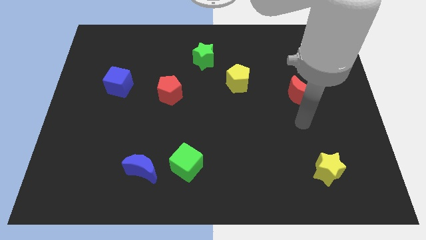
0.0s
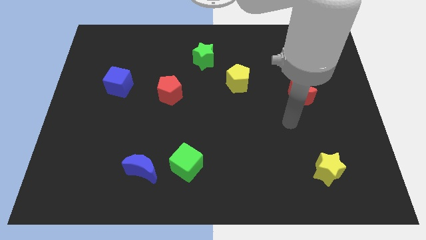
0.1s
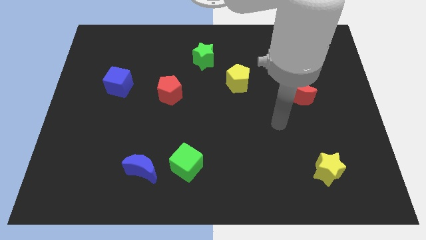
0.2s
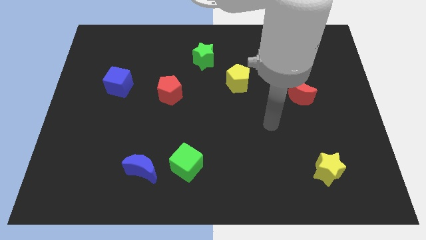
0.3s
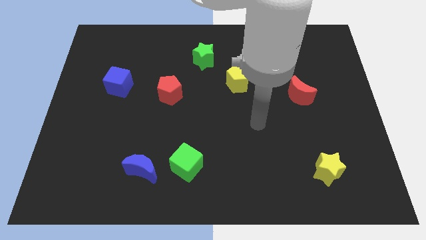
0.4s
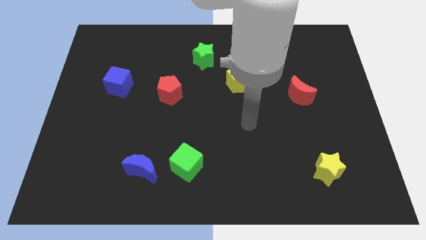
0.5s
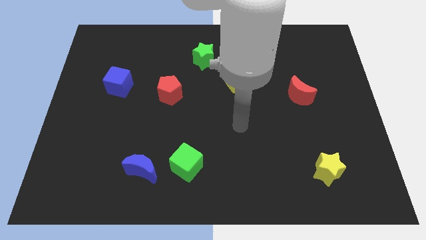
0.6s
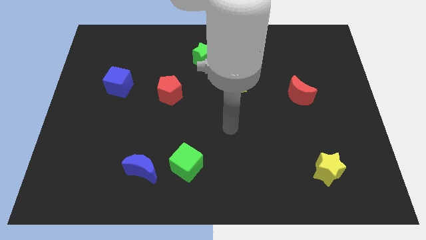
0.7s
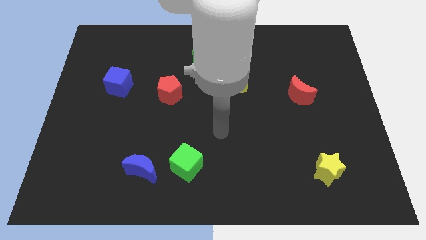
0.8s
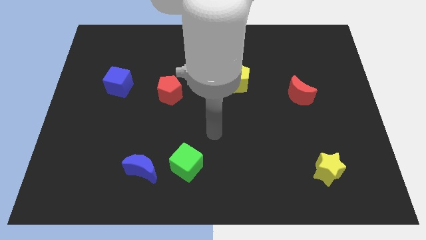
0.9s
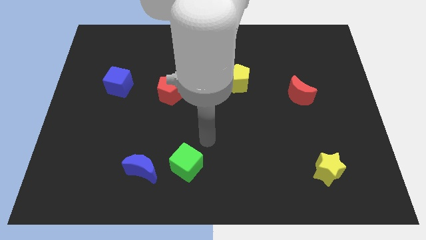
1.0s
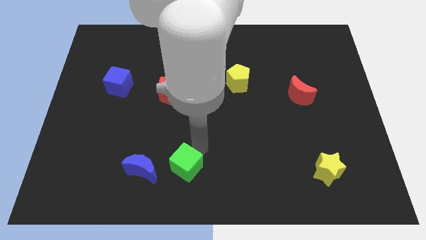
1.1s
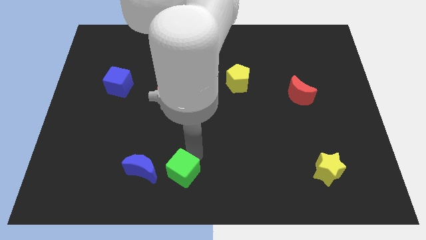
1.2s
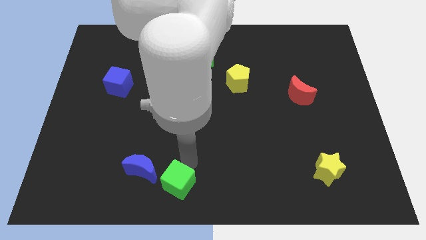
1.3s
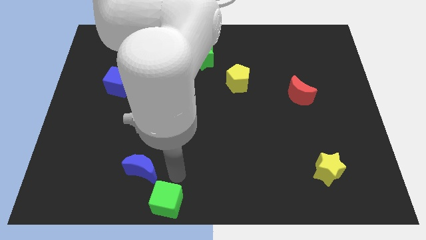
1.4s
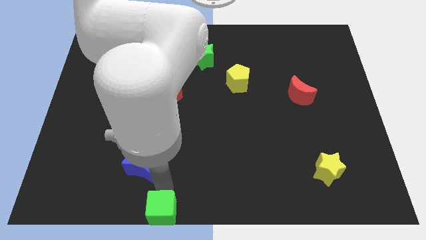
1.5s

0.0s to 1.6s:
move the blue moon away from the green cube

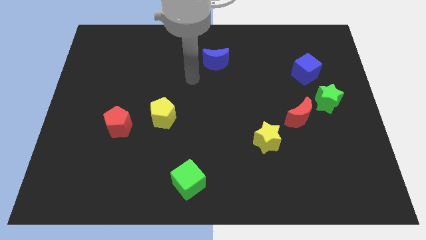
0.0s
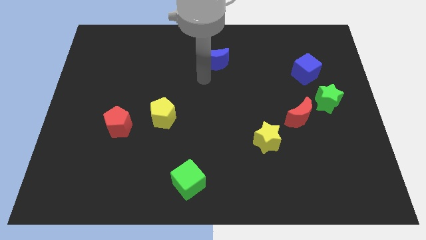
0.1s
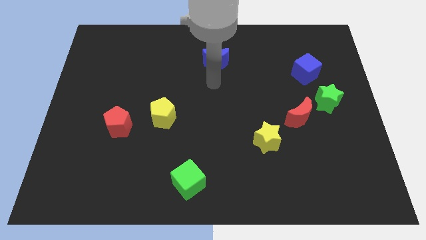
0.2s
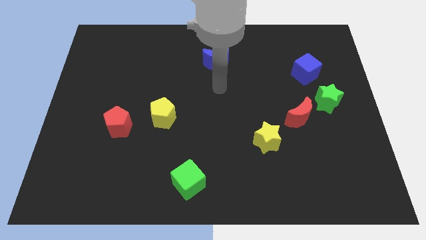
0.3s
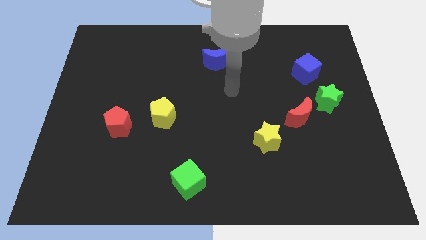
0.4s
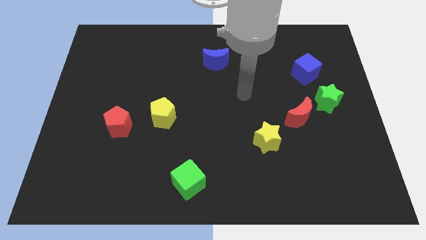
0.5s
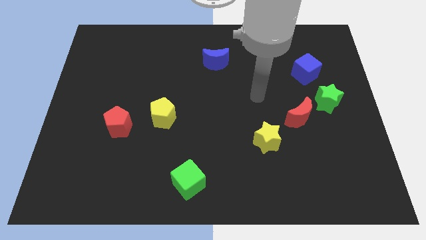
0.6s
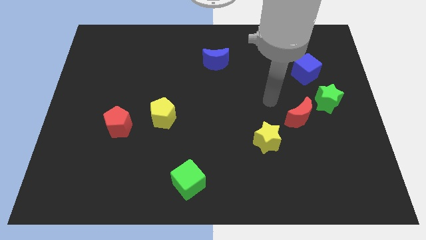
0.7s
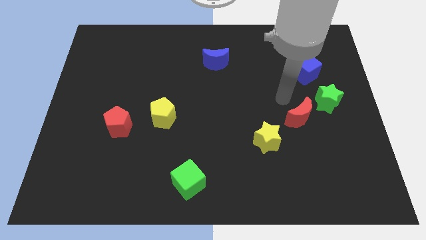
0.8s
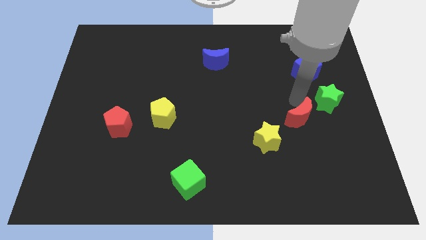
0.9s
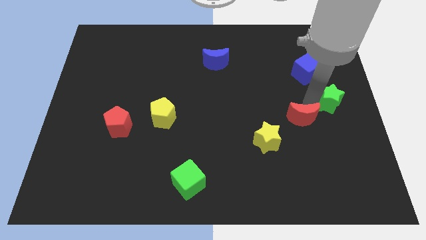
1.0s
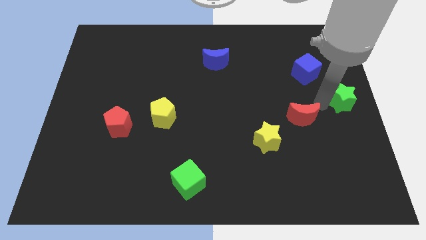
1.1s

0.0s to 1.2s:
separate the red moon from the green star

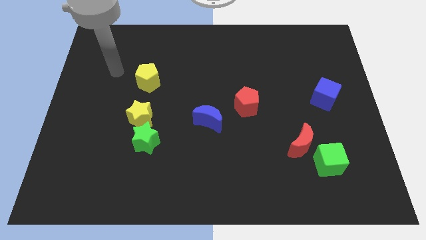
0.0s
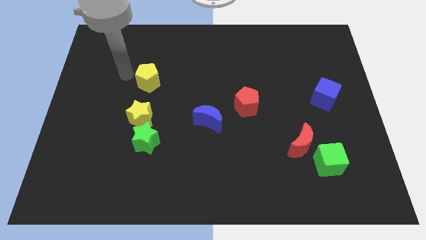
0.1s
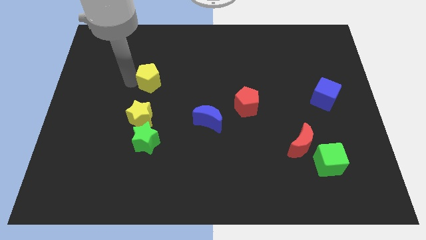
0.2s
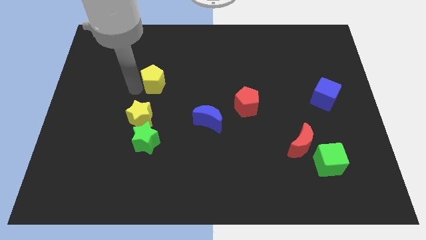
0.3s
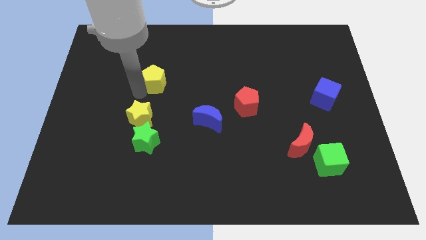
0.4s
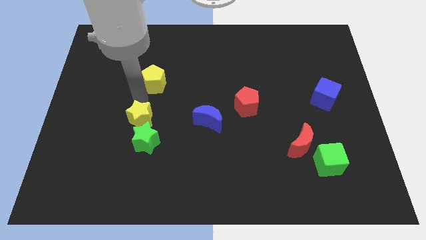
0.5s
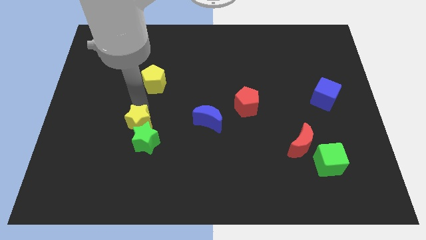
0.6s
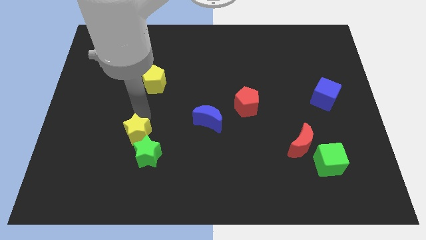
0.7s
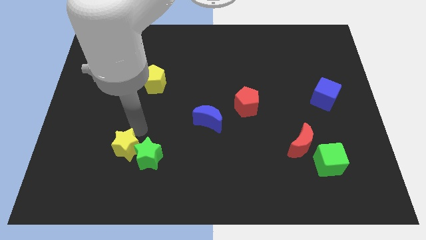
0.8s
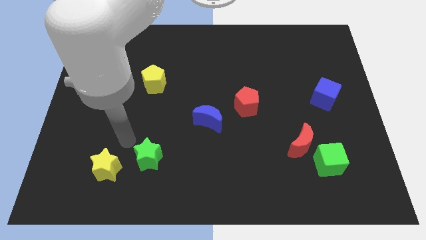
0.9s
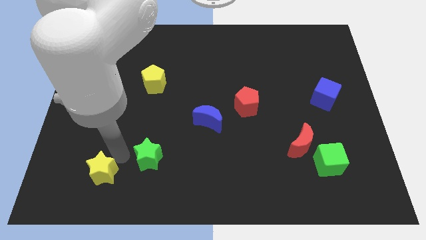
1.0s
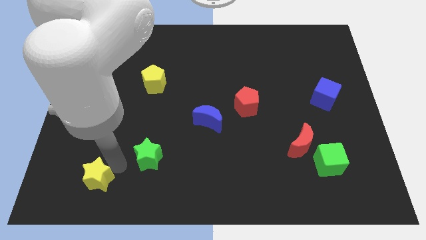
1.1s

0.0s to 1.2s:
move the green star away from the yellow star

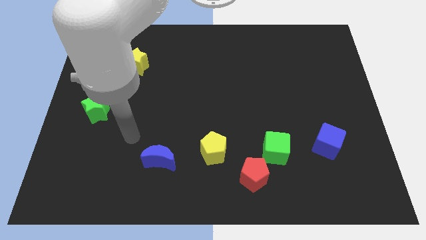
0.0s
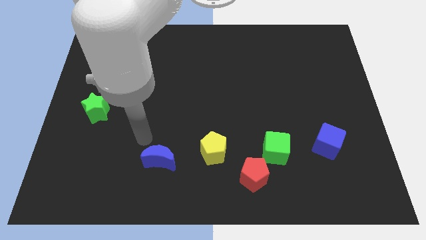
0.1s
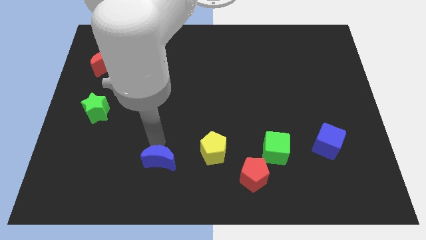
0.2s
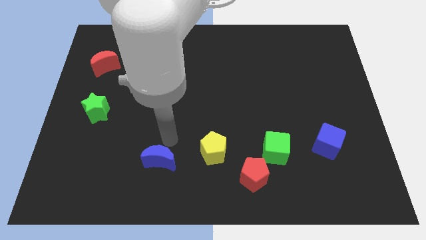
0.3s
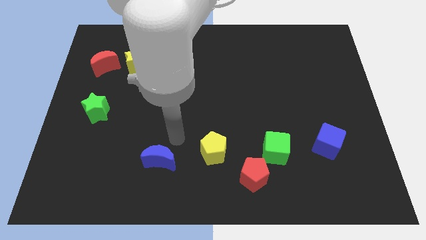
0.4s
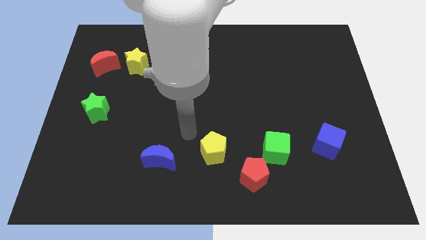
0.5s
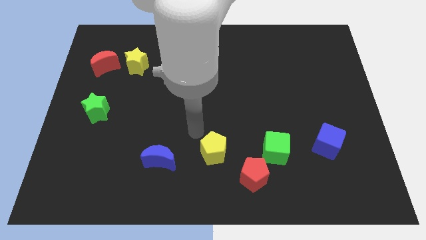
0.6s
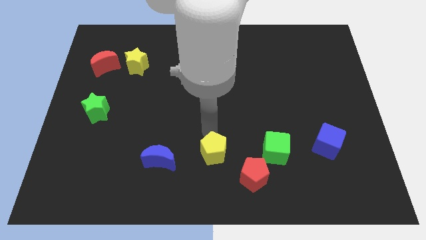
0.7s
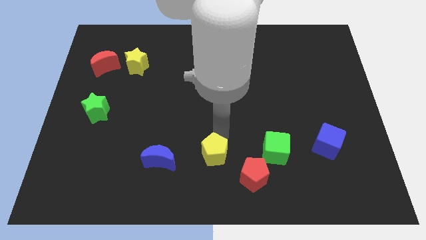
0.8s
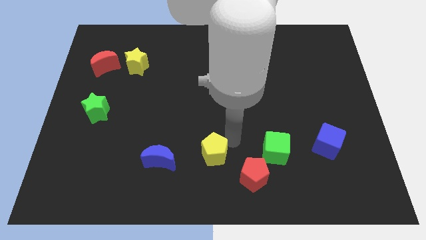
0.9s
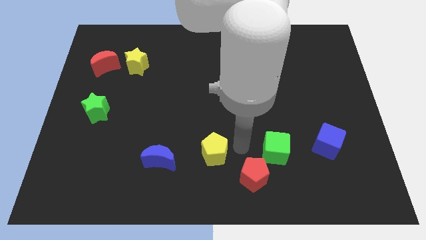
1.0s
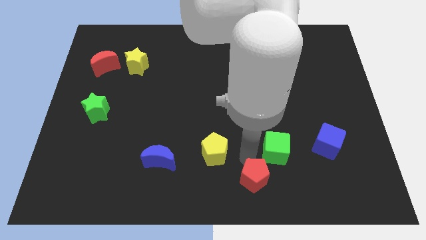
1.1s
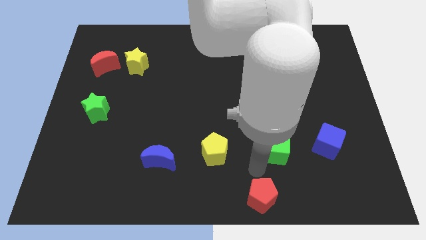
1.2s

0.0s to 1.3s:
pull the green cube apart from the red pentagon

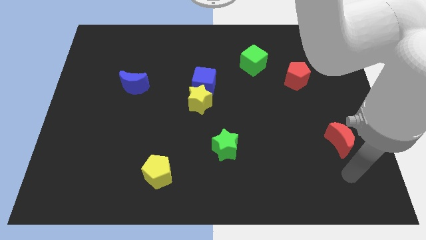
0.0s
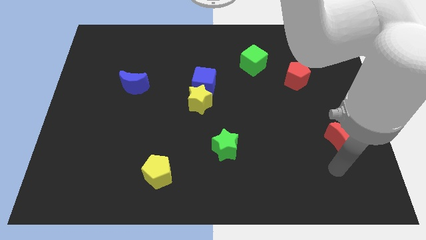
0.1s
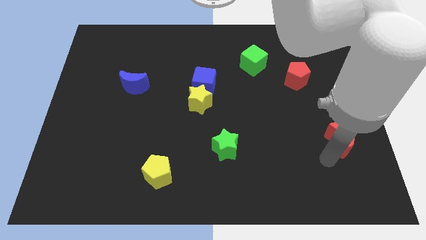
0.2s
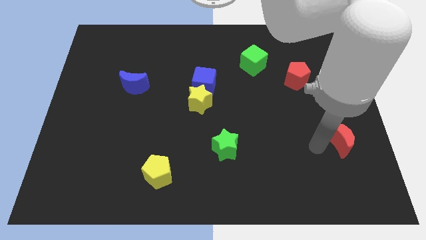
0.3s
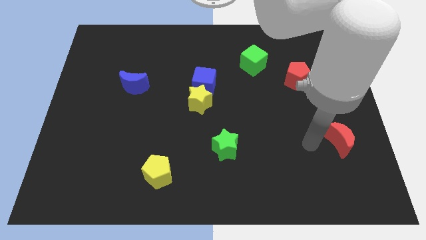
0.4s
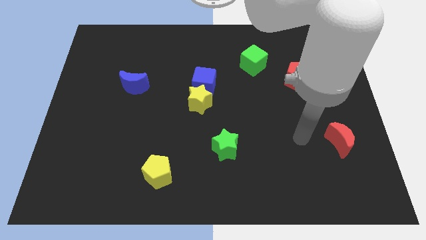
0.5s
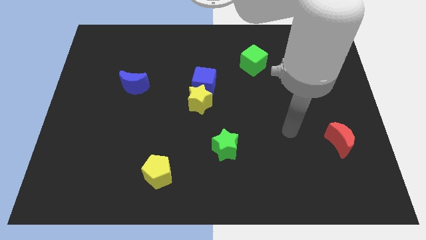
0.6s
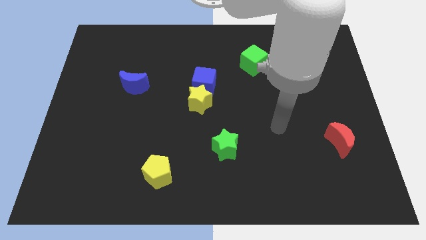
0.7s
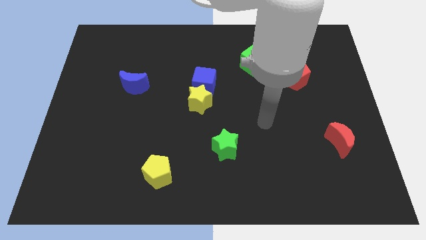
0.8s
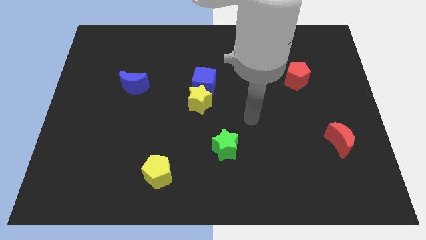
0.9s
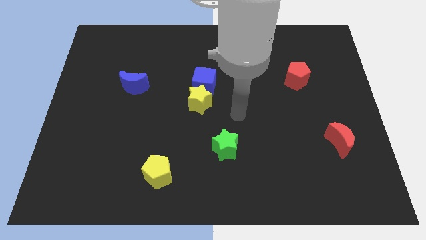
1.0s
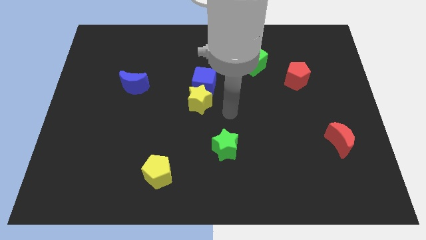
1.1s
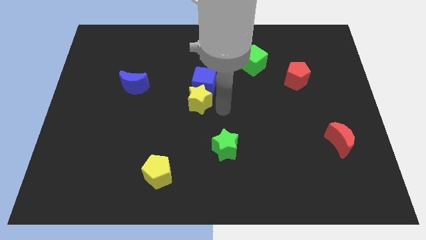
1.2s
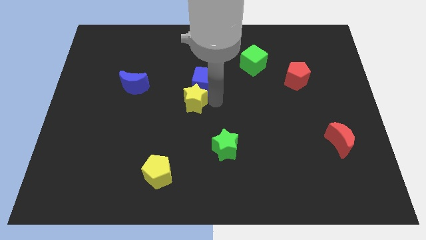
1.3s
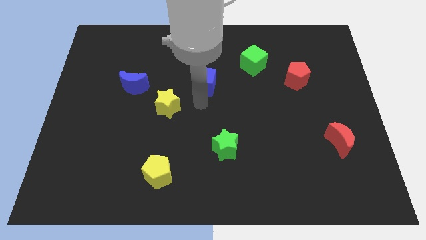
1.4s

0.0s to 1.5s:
pull the blue cube apart from the yellow star

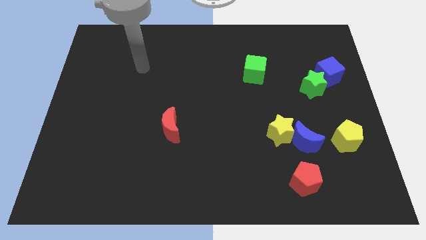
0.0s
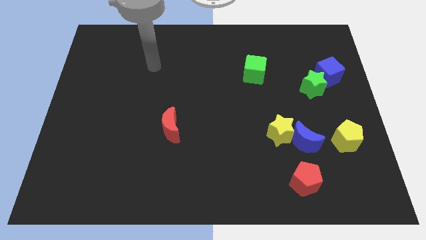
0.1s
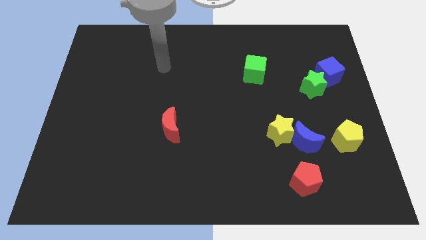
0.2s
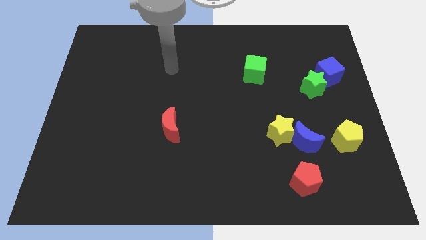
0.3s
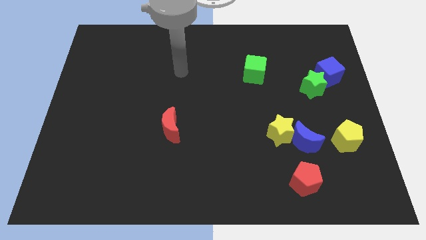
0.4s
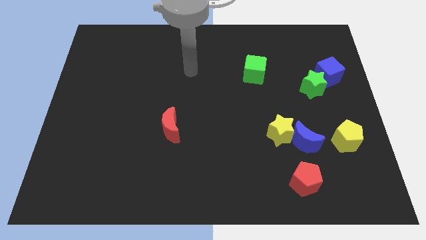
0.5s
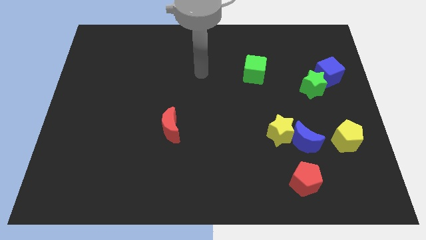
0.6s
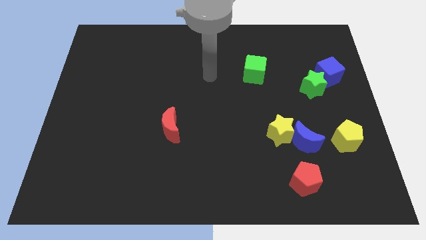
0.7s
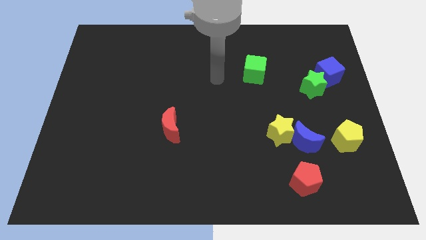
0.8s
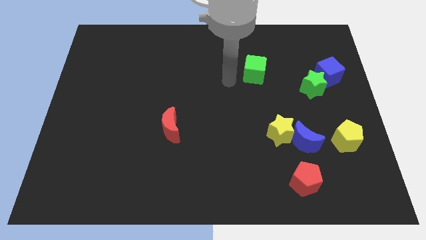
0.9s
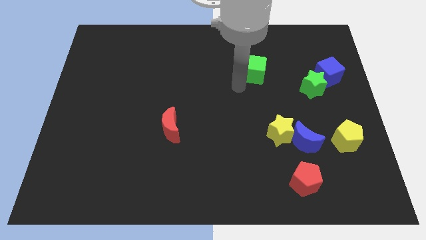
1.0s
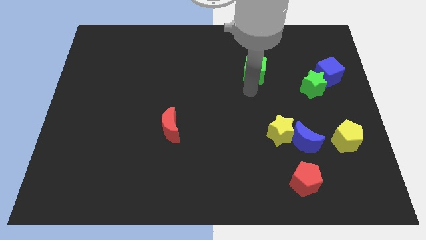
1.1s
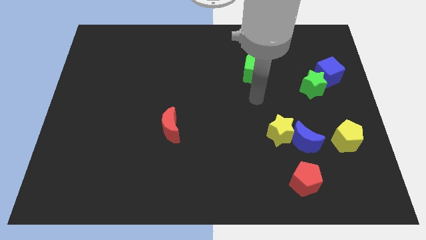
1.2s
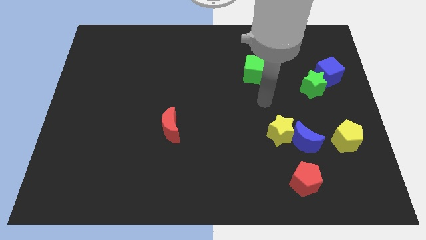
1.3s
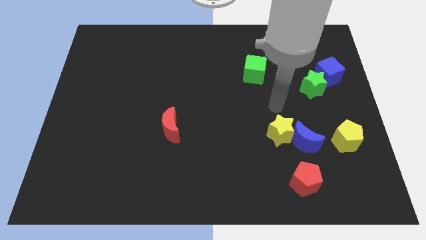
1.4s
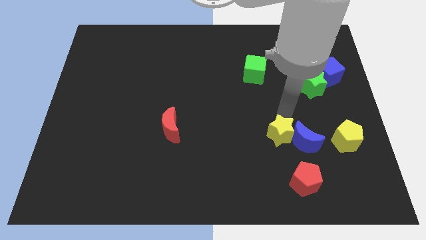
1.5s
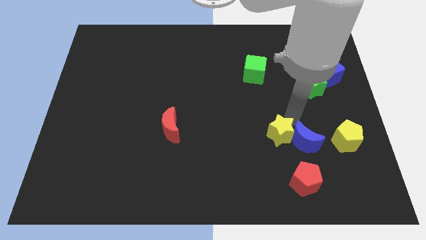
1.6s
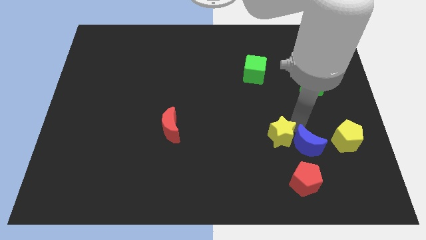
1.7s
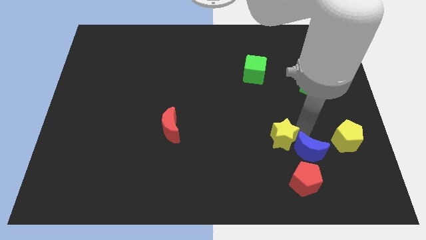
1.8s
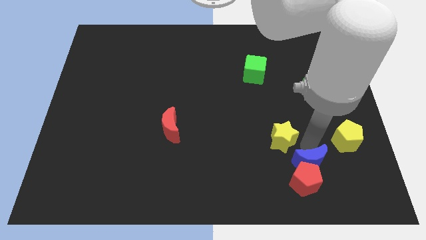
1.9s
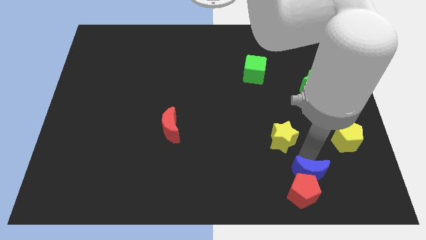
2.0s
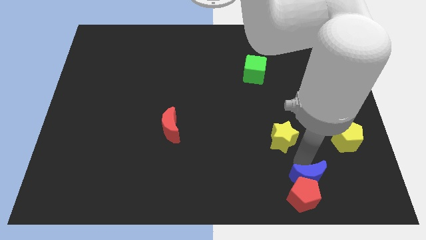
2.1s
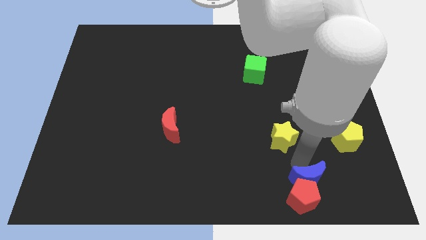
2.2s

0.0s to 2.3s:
pull the yellow star apart from the blue moon

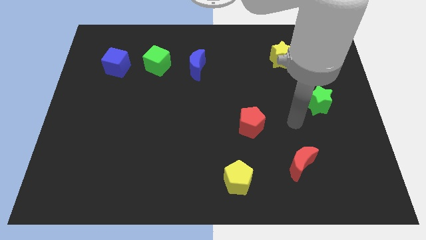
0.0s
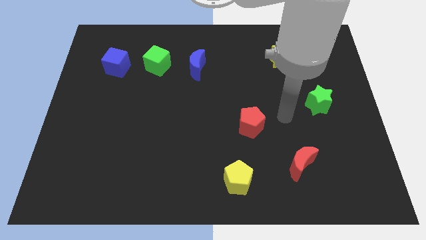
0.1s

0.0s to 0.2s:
separate the blue moon from the green cube
